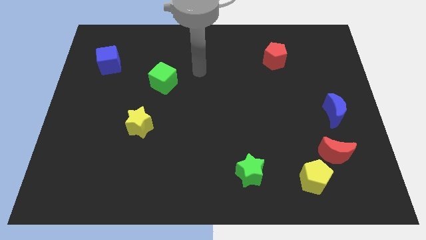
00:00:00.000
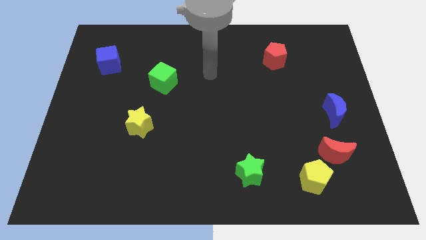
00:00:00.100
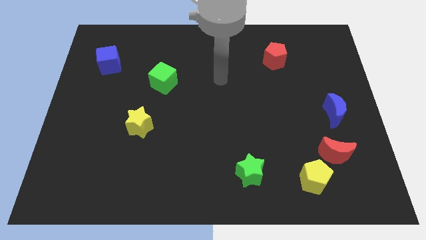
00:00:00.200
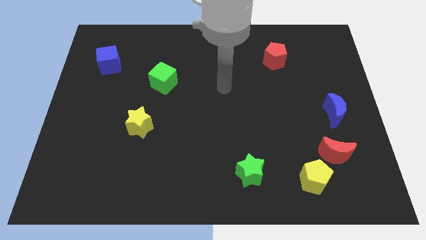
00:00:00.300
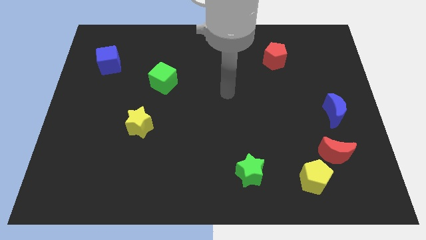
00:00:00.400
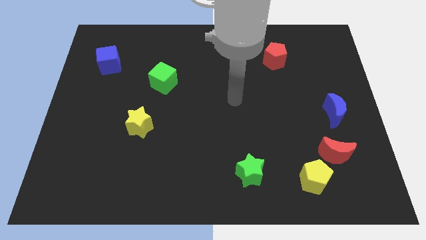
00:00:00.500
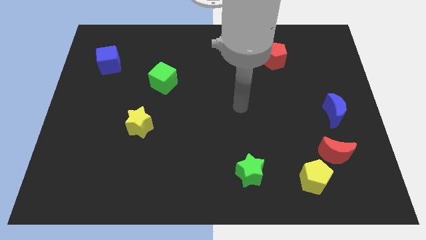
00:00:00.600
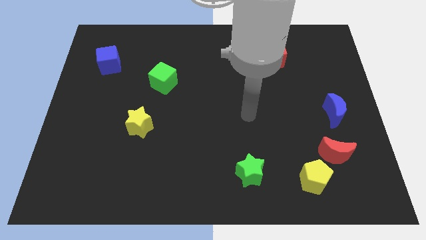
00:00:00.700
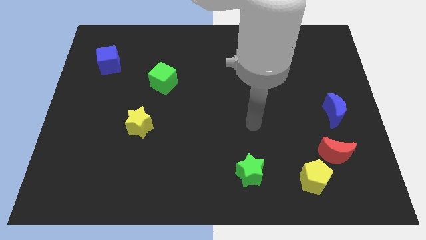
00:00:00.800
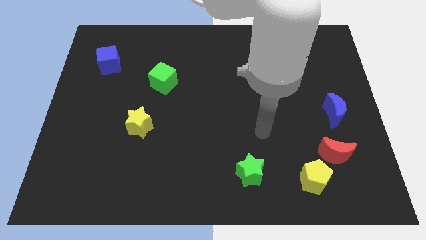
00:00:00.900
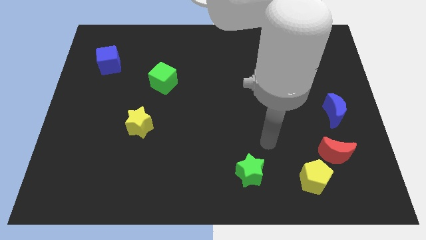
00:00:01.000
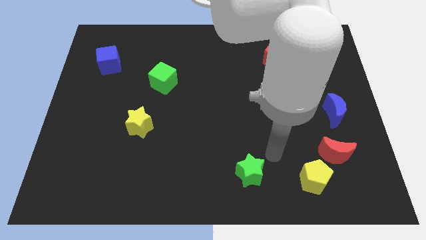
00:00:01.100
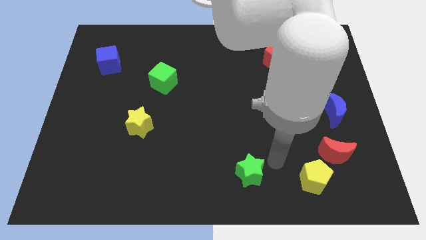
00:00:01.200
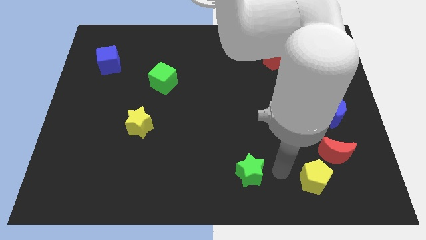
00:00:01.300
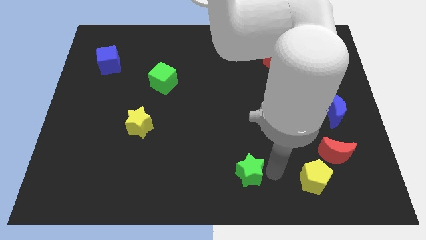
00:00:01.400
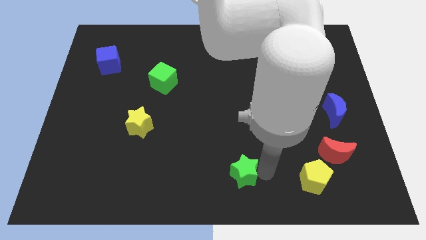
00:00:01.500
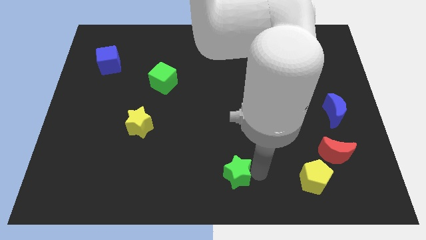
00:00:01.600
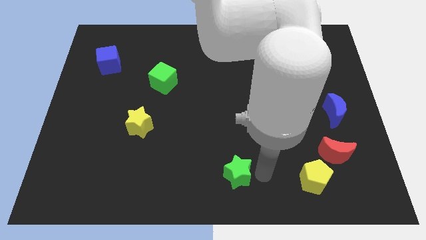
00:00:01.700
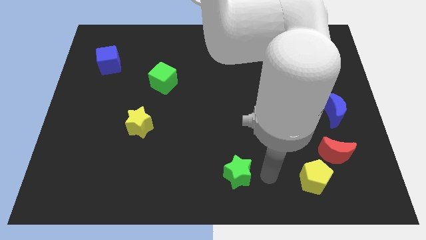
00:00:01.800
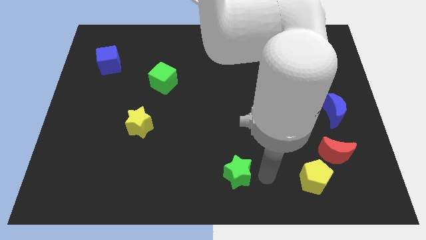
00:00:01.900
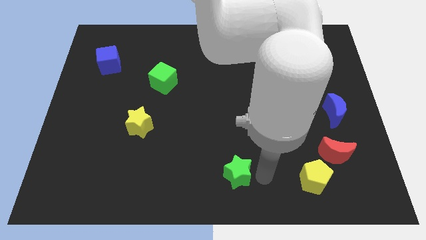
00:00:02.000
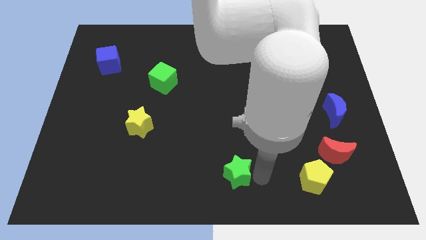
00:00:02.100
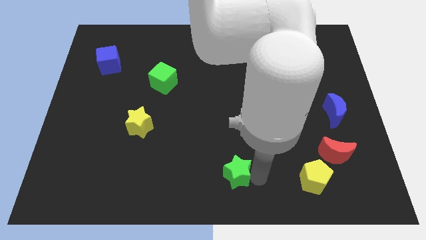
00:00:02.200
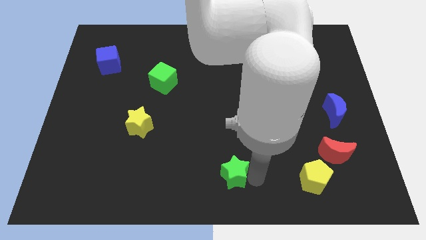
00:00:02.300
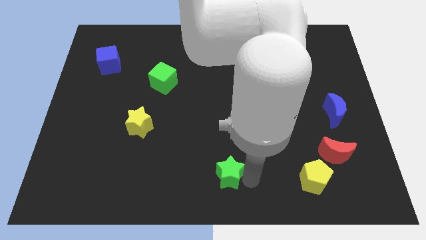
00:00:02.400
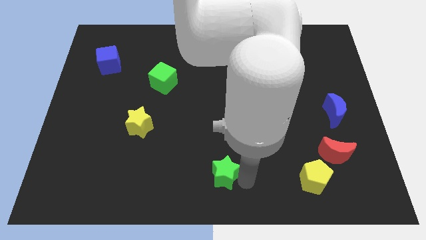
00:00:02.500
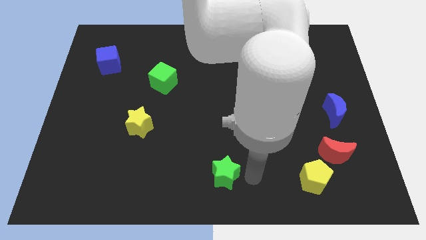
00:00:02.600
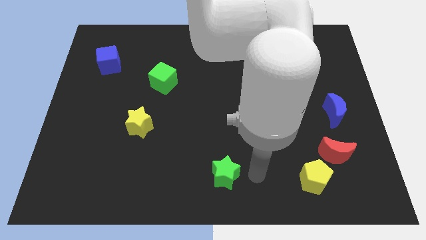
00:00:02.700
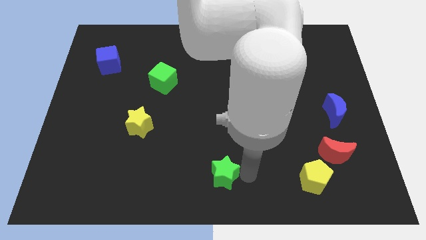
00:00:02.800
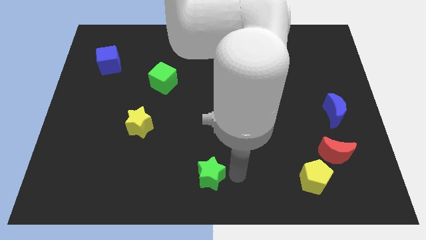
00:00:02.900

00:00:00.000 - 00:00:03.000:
push the green star to the left somewhat

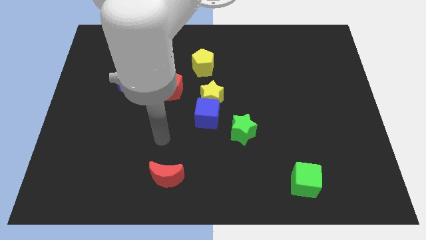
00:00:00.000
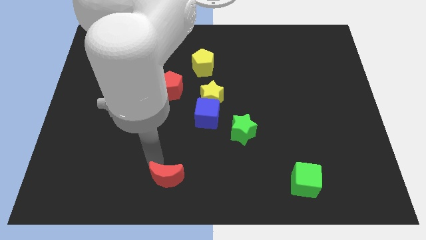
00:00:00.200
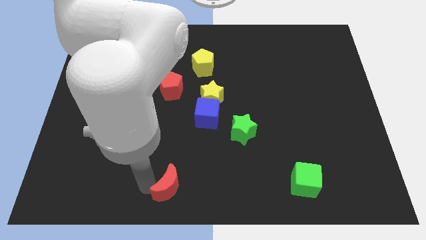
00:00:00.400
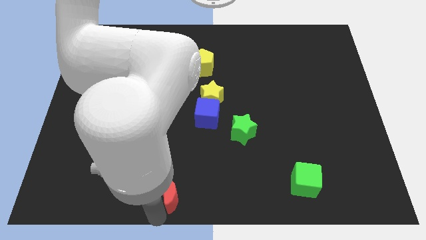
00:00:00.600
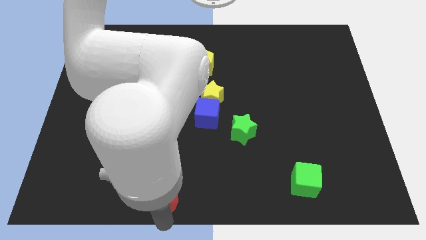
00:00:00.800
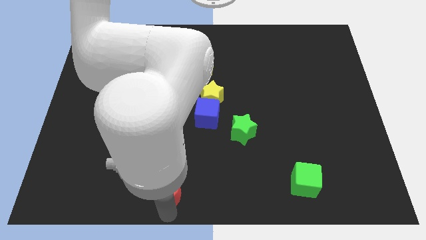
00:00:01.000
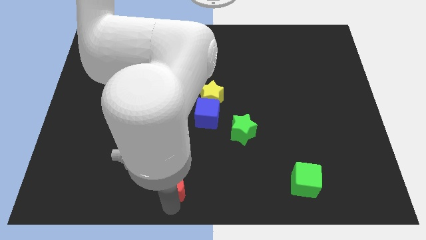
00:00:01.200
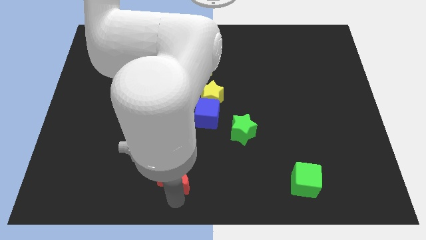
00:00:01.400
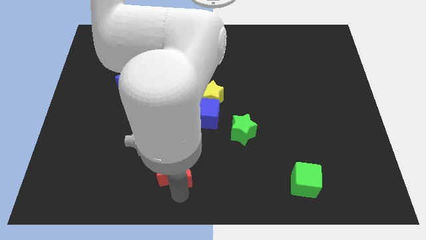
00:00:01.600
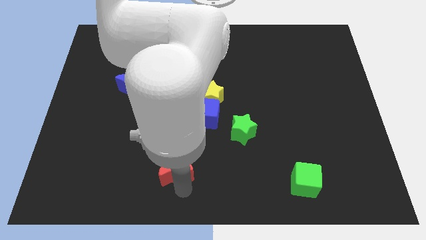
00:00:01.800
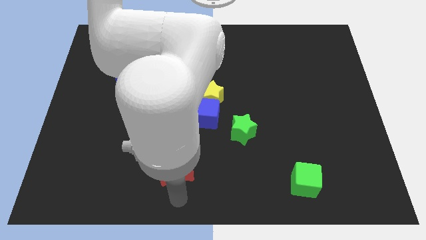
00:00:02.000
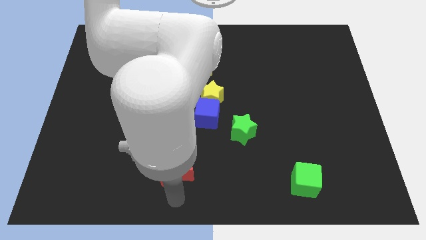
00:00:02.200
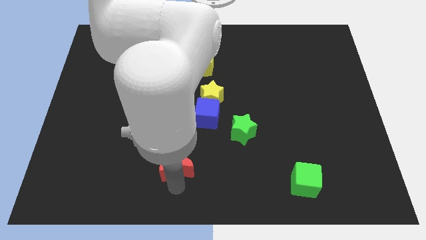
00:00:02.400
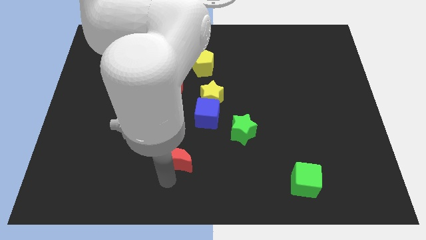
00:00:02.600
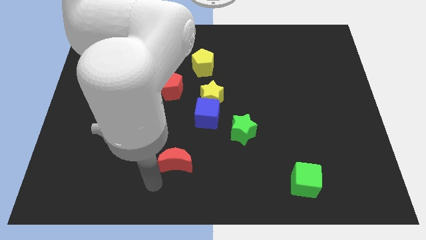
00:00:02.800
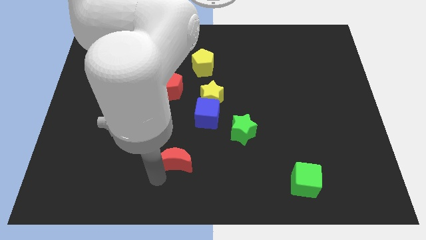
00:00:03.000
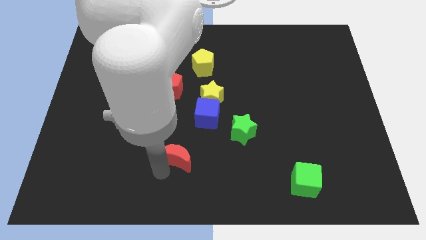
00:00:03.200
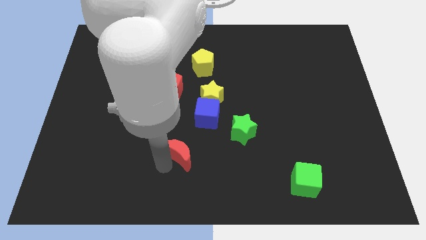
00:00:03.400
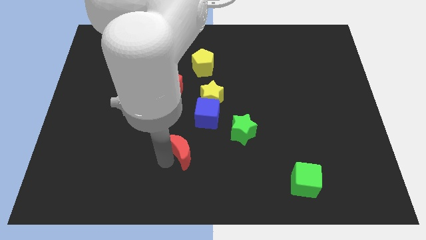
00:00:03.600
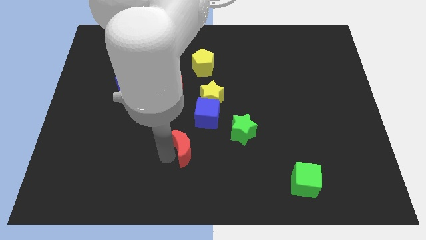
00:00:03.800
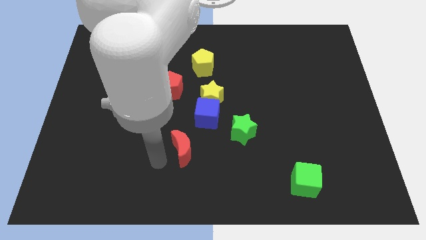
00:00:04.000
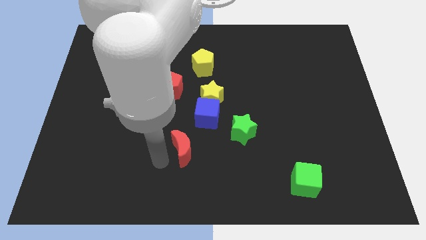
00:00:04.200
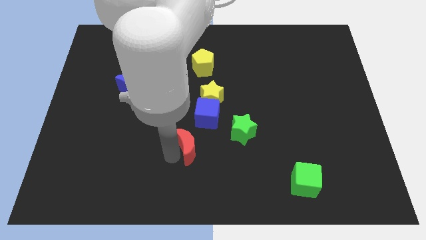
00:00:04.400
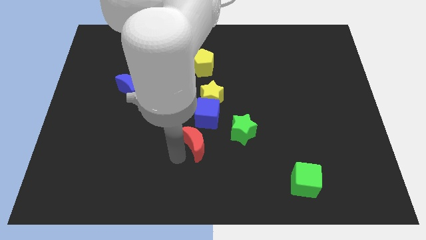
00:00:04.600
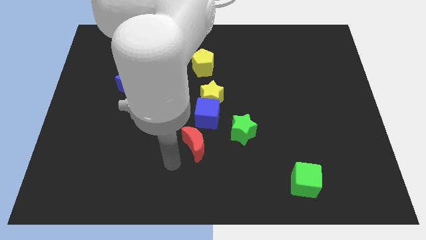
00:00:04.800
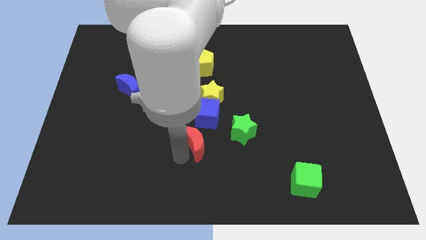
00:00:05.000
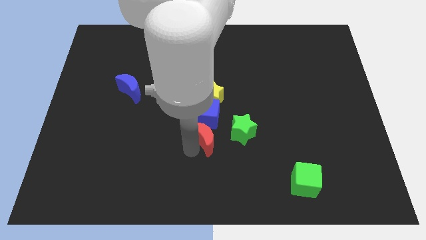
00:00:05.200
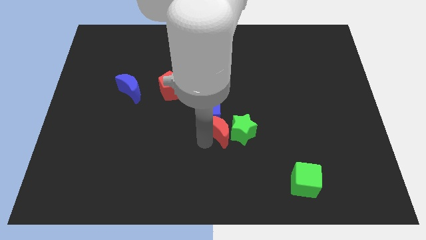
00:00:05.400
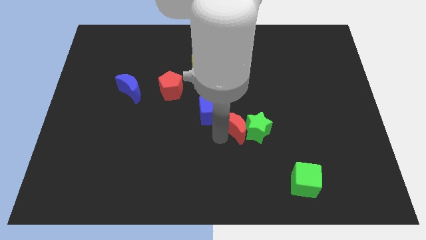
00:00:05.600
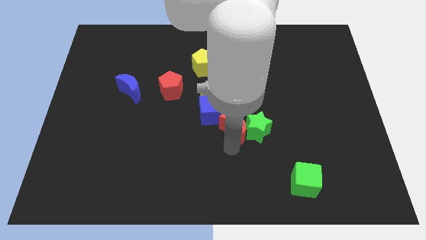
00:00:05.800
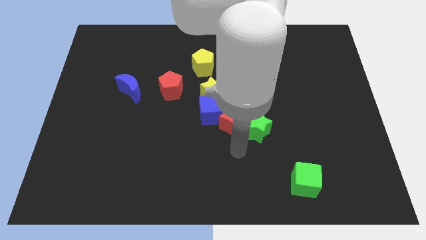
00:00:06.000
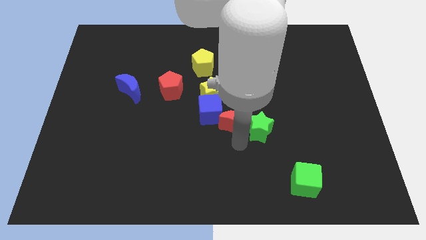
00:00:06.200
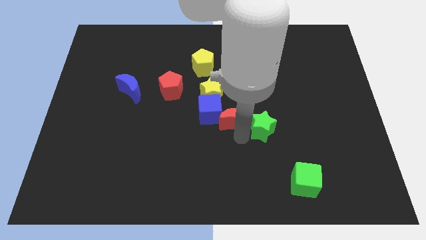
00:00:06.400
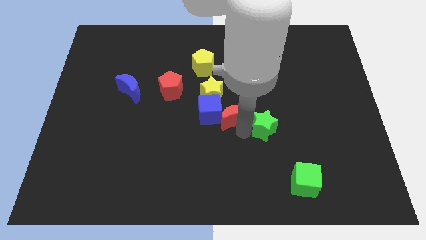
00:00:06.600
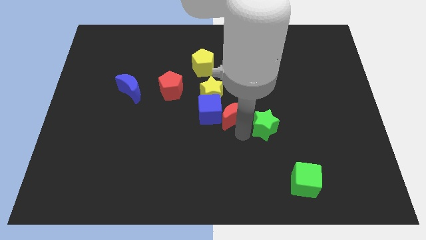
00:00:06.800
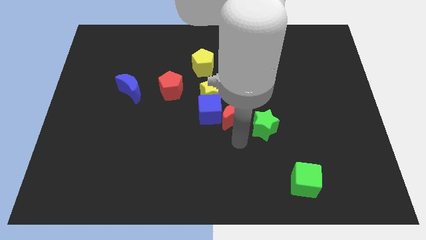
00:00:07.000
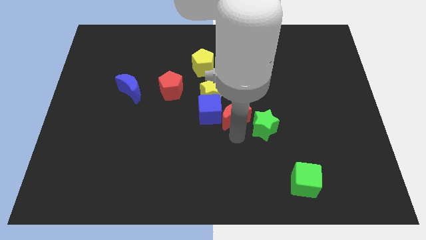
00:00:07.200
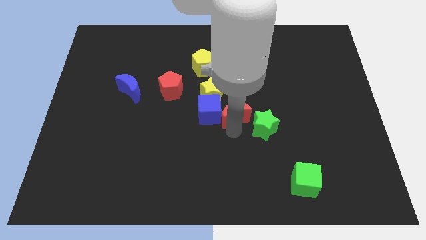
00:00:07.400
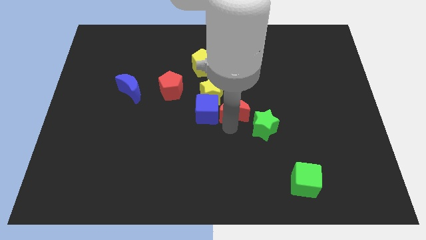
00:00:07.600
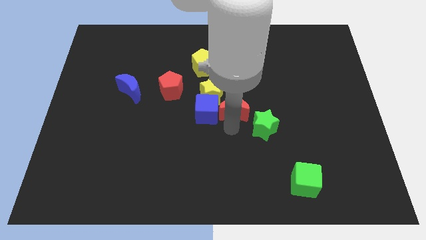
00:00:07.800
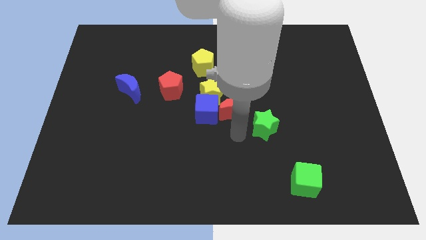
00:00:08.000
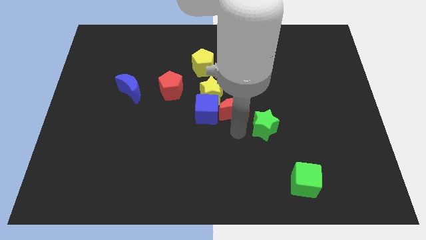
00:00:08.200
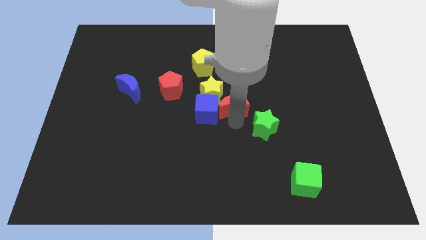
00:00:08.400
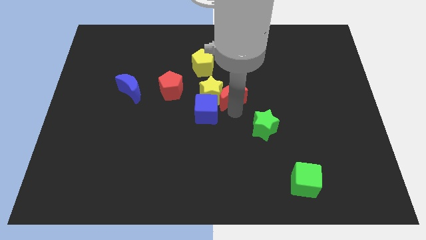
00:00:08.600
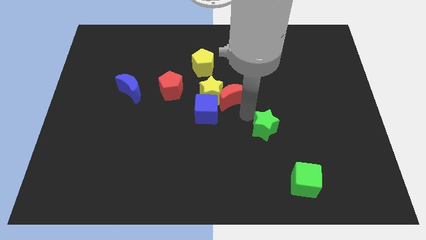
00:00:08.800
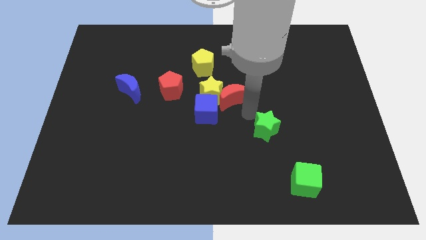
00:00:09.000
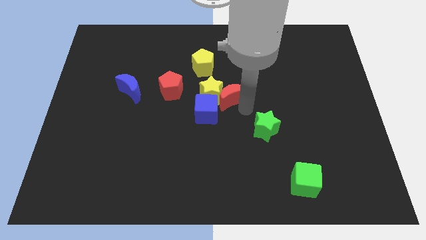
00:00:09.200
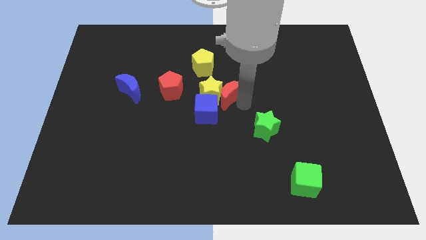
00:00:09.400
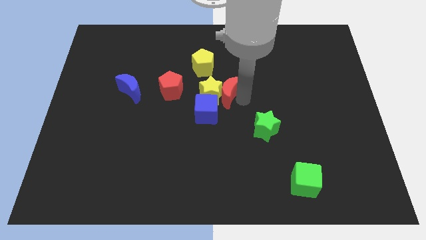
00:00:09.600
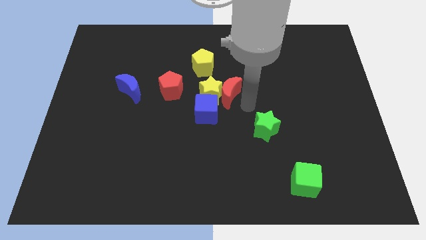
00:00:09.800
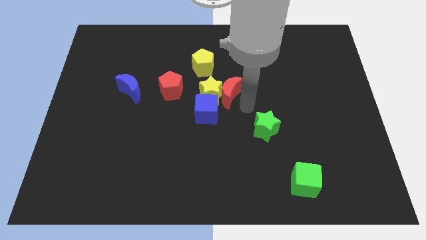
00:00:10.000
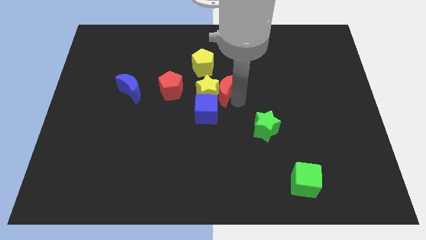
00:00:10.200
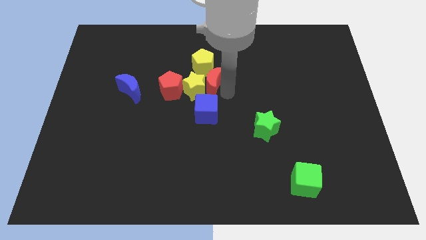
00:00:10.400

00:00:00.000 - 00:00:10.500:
move the red moon up

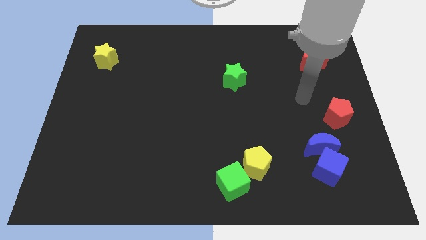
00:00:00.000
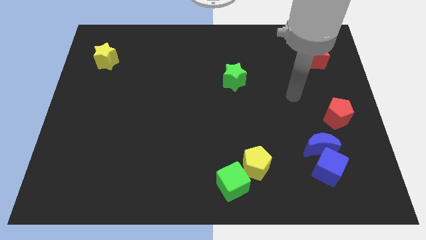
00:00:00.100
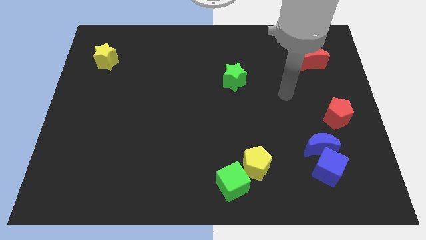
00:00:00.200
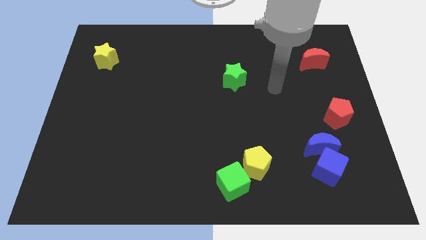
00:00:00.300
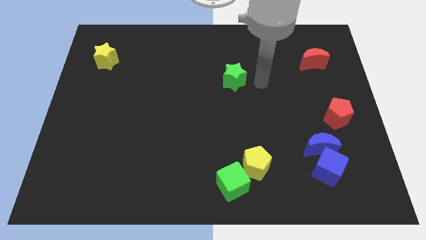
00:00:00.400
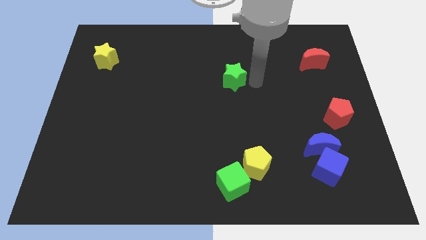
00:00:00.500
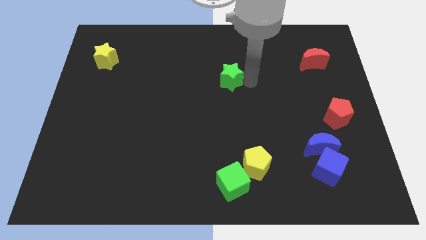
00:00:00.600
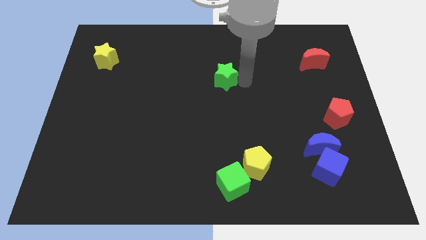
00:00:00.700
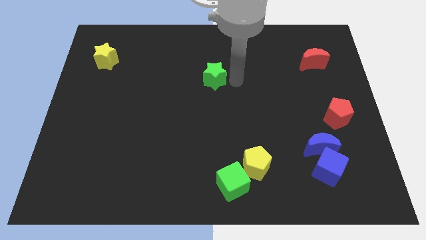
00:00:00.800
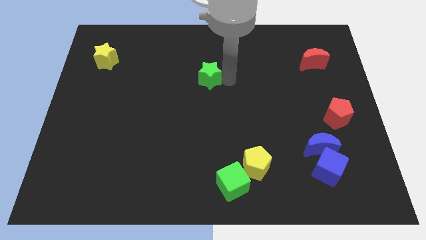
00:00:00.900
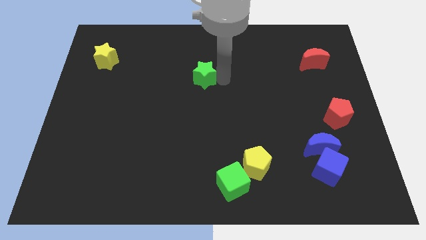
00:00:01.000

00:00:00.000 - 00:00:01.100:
slightly push the green star to the left
